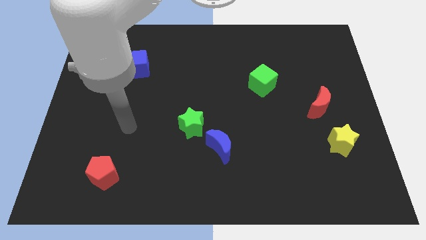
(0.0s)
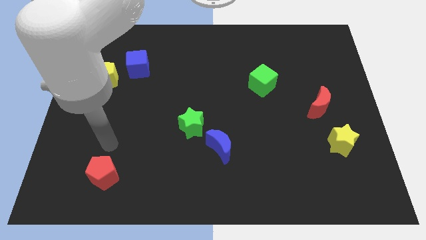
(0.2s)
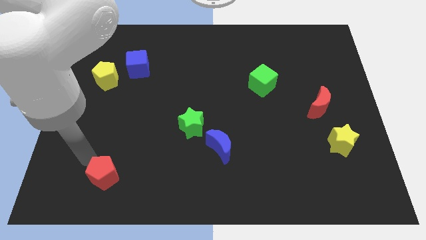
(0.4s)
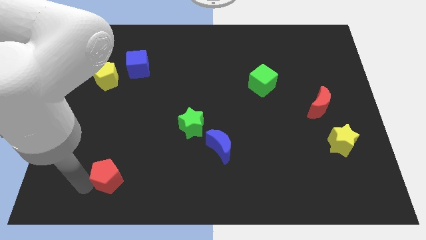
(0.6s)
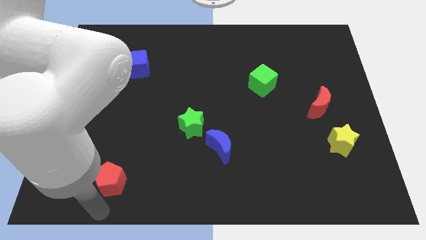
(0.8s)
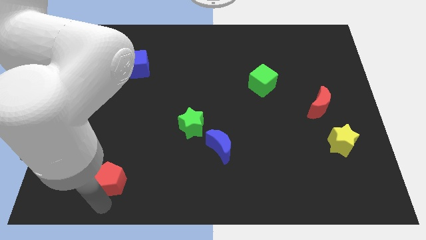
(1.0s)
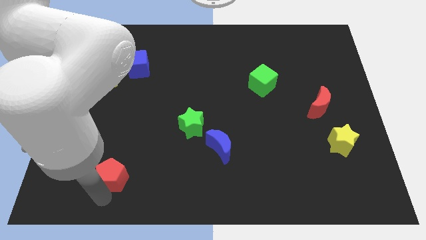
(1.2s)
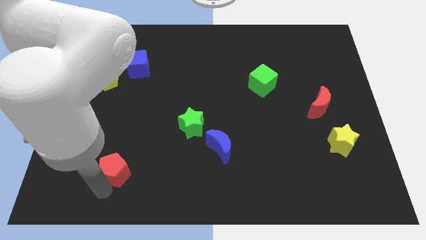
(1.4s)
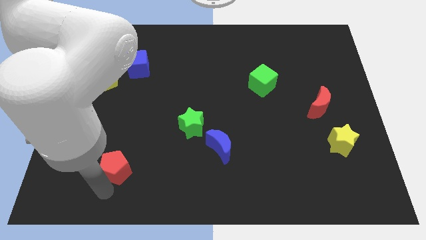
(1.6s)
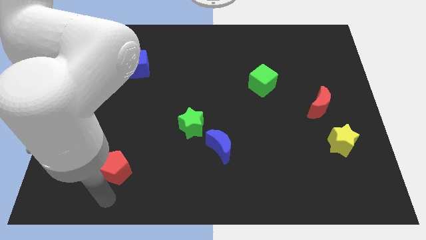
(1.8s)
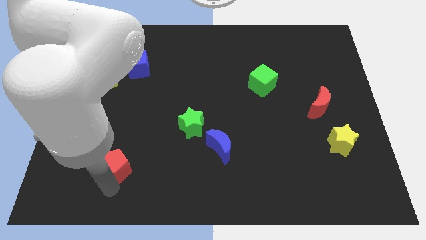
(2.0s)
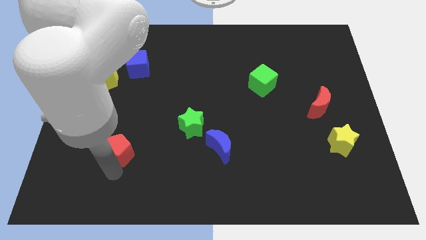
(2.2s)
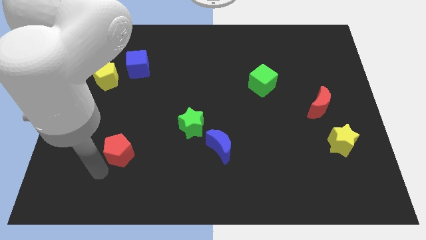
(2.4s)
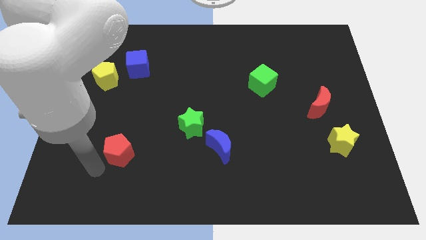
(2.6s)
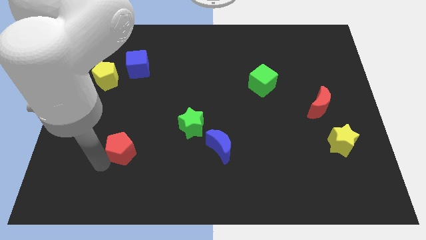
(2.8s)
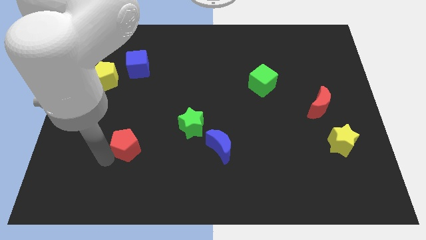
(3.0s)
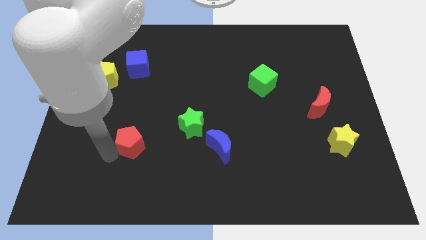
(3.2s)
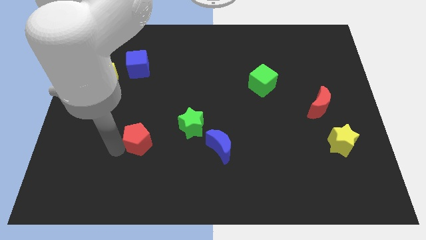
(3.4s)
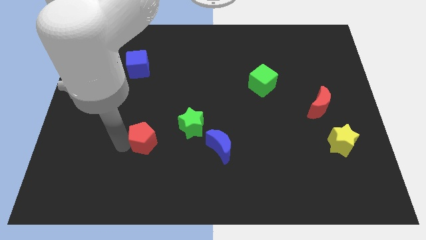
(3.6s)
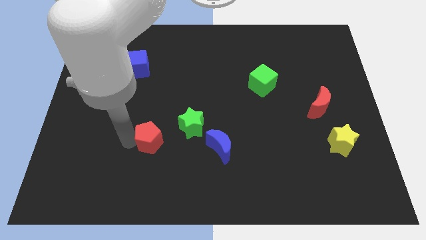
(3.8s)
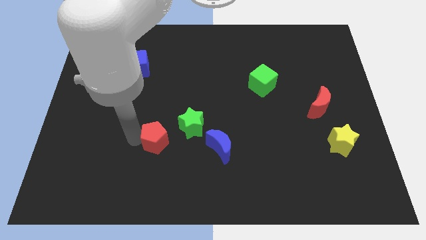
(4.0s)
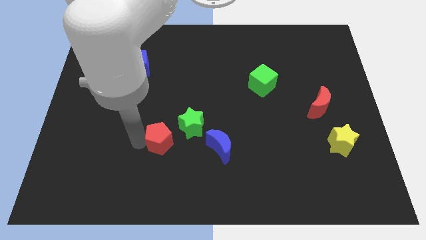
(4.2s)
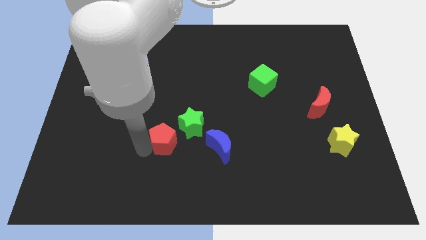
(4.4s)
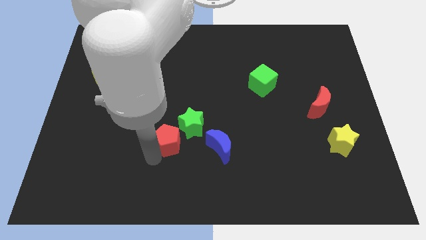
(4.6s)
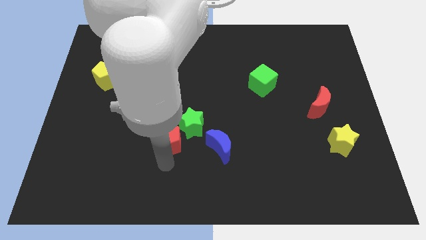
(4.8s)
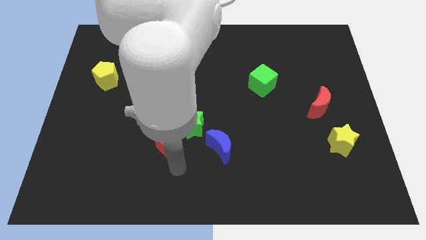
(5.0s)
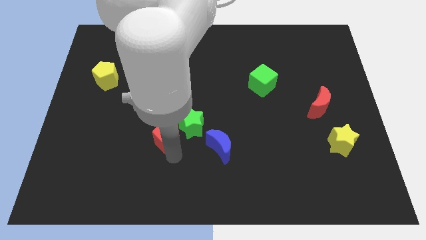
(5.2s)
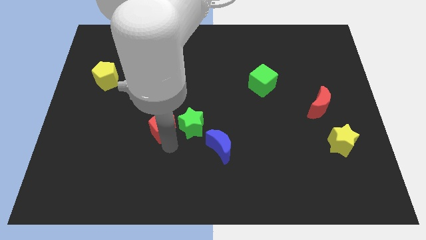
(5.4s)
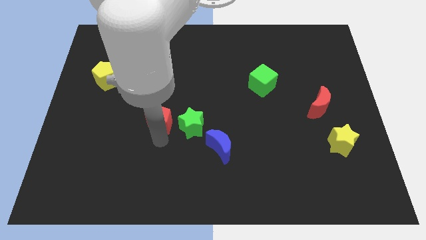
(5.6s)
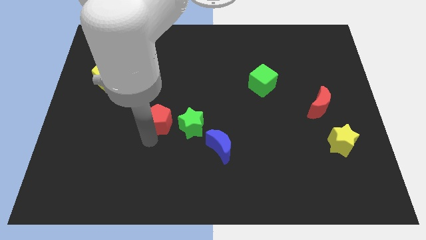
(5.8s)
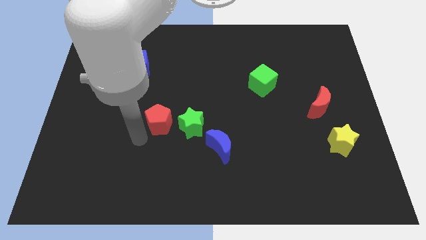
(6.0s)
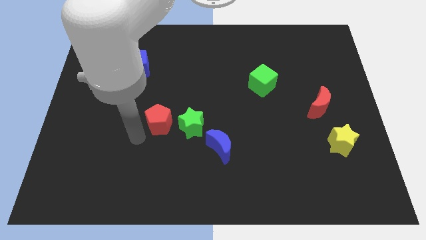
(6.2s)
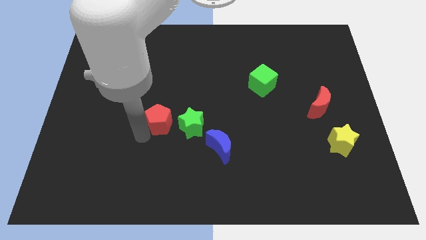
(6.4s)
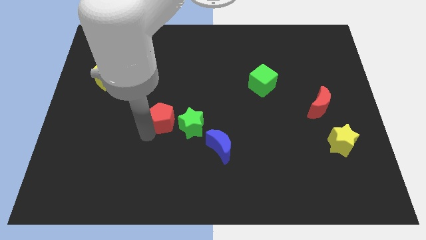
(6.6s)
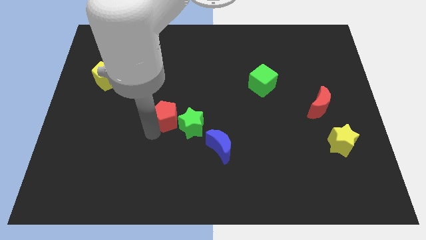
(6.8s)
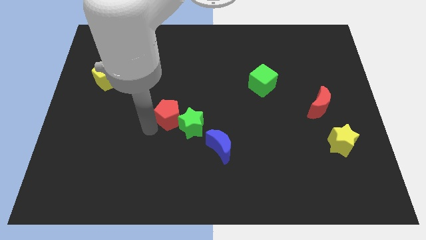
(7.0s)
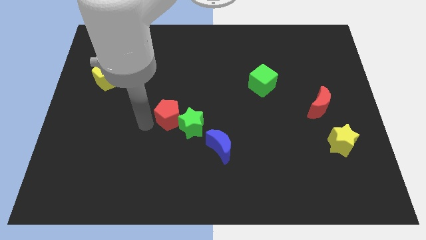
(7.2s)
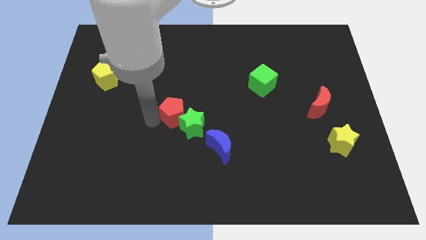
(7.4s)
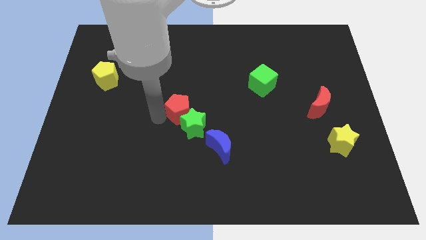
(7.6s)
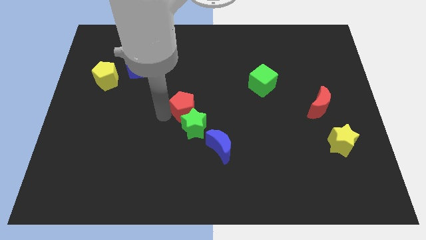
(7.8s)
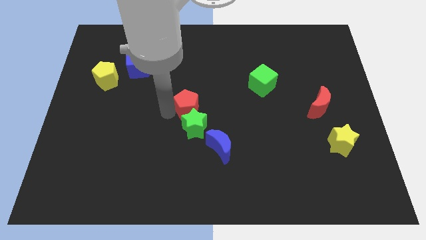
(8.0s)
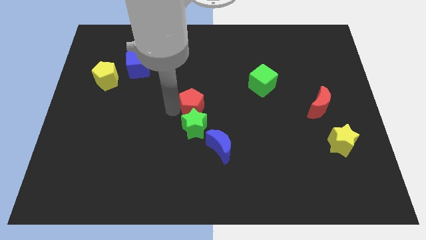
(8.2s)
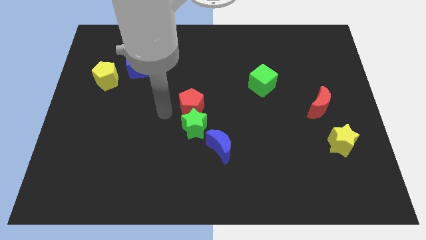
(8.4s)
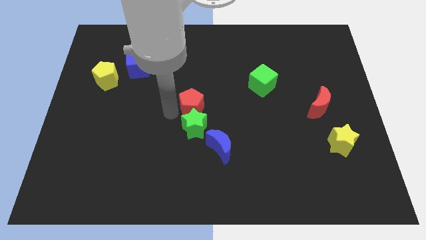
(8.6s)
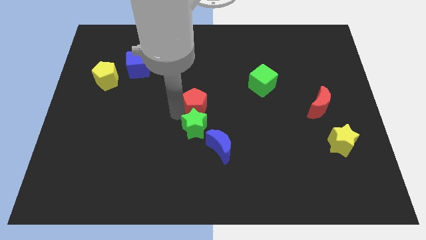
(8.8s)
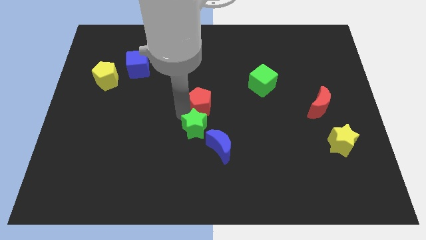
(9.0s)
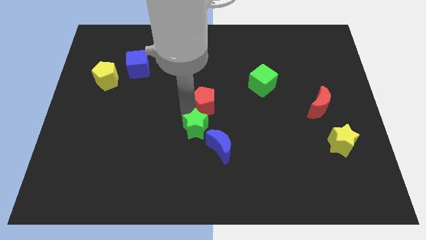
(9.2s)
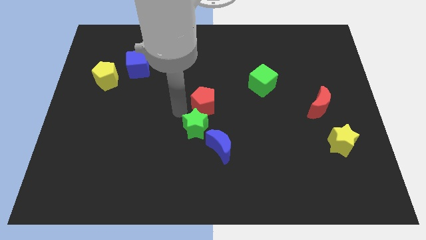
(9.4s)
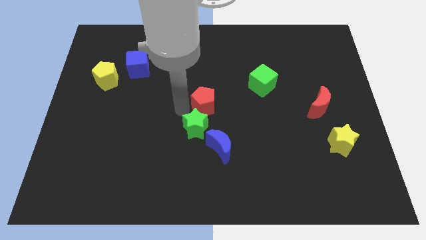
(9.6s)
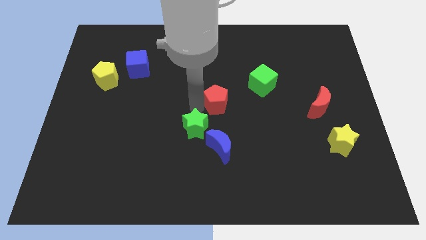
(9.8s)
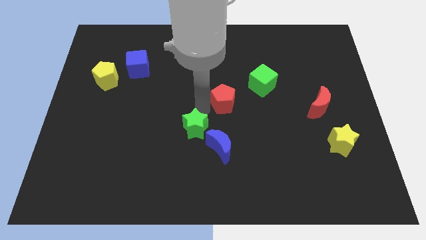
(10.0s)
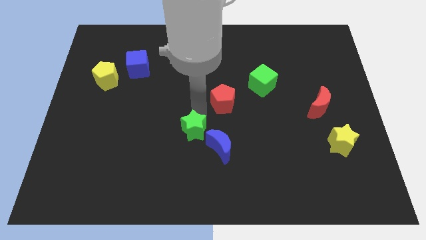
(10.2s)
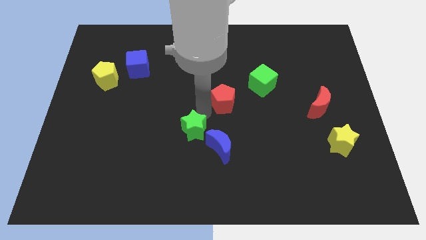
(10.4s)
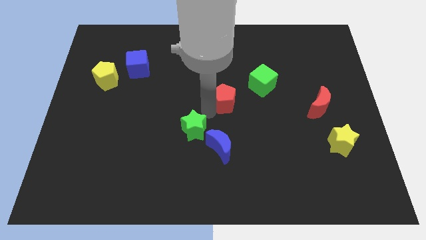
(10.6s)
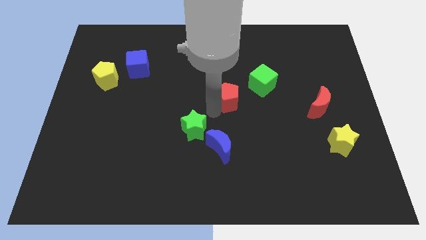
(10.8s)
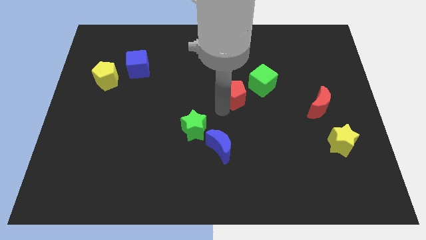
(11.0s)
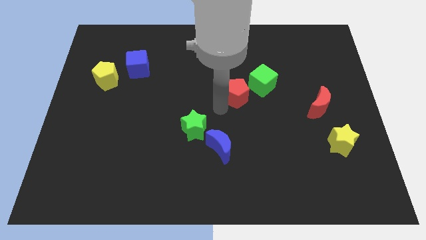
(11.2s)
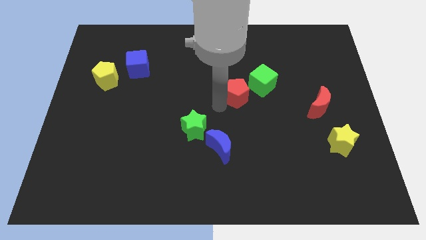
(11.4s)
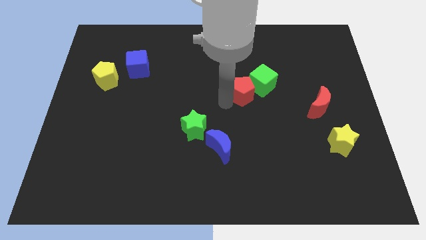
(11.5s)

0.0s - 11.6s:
slide the red pentagon close to the green cube
